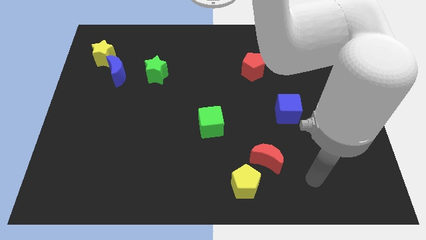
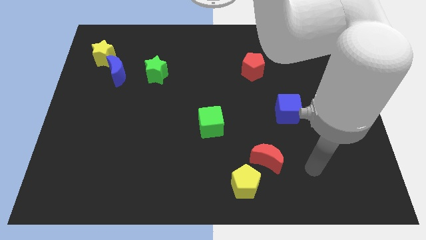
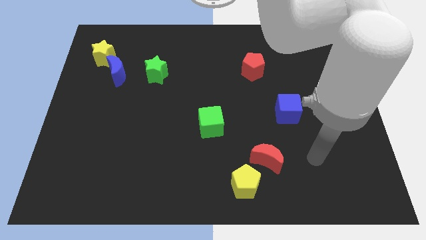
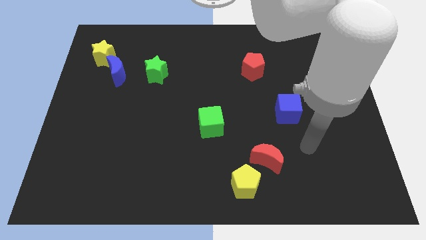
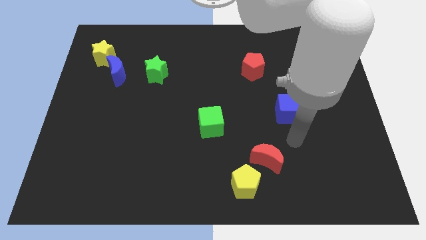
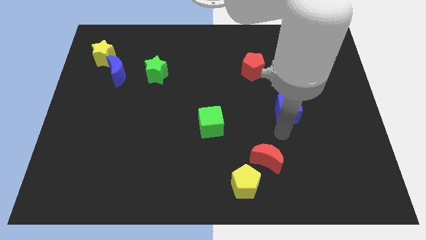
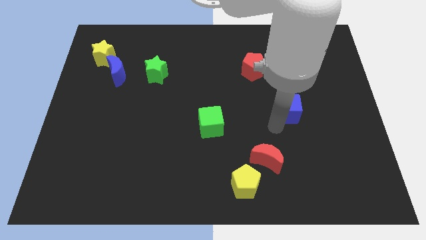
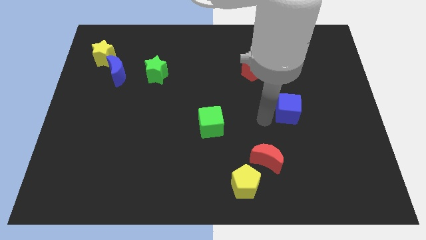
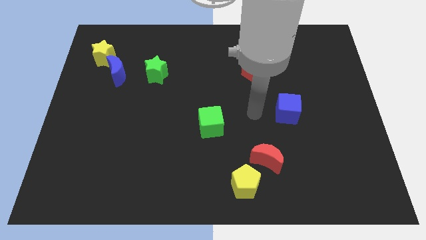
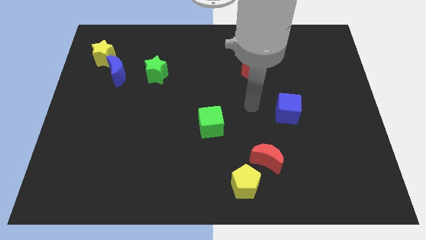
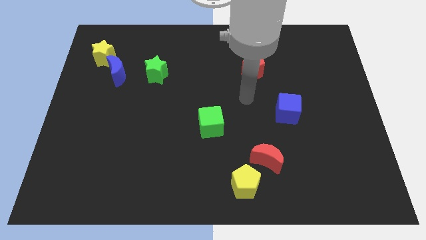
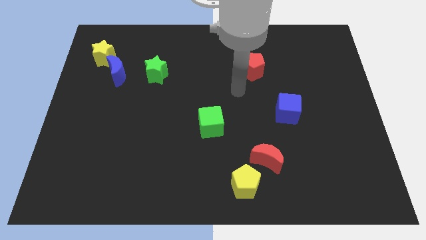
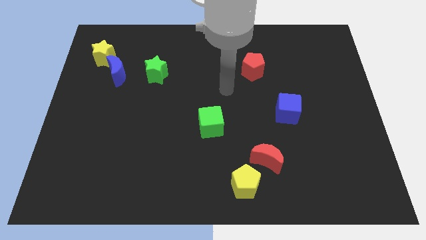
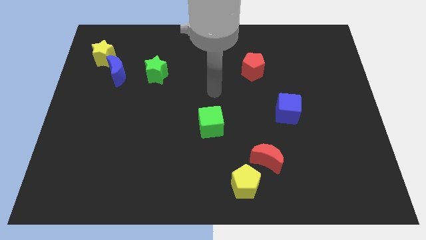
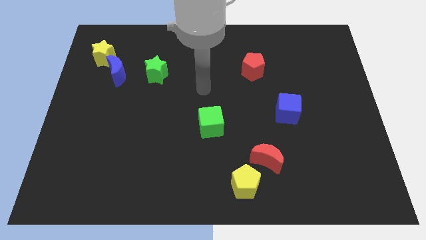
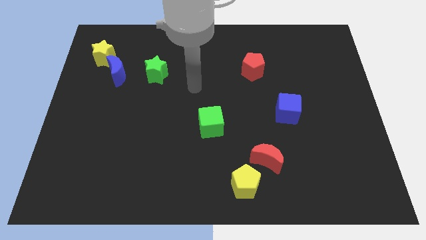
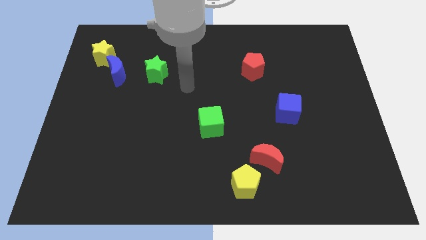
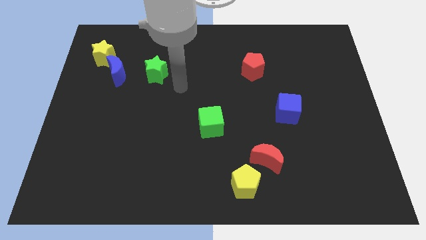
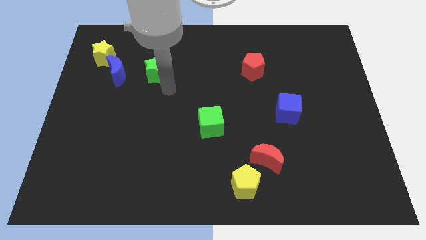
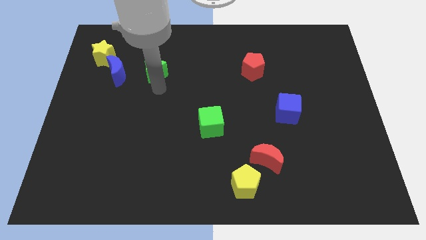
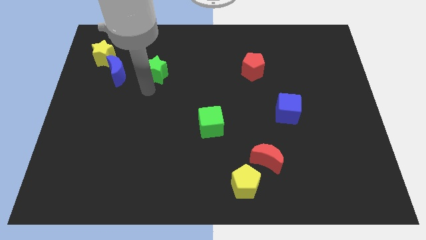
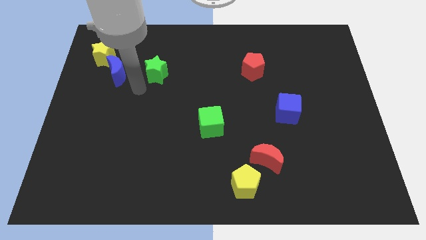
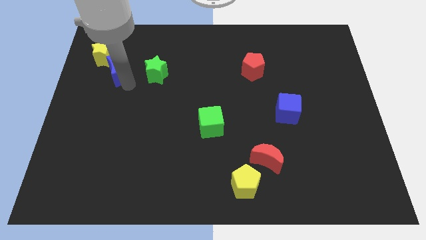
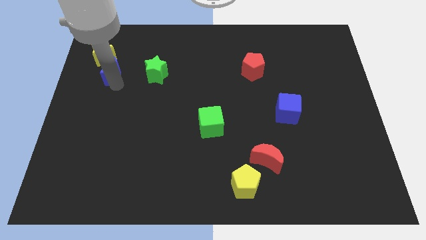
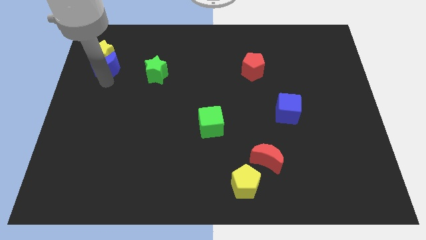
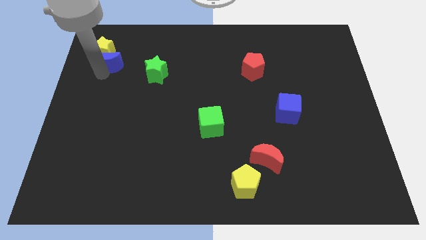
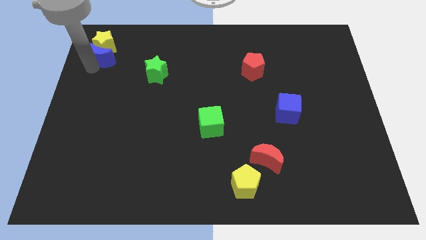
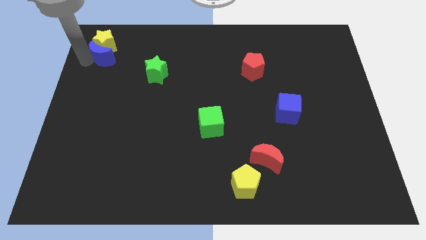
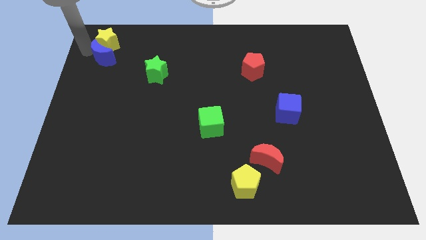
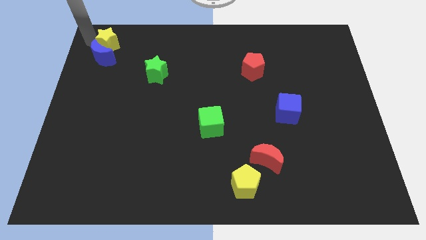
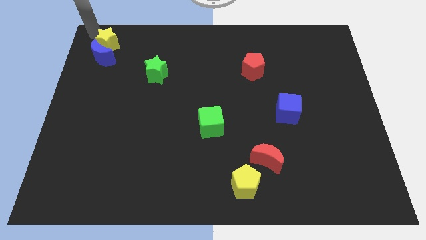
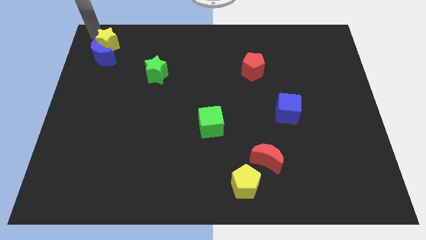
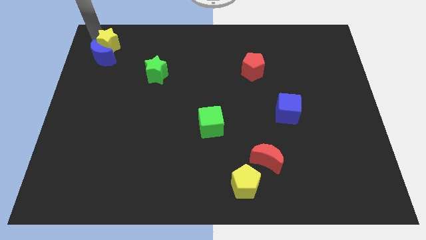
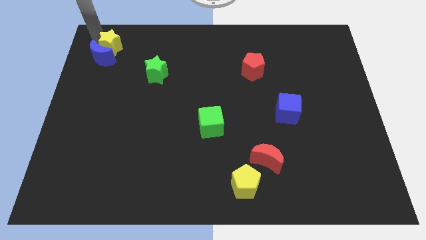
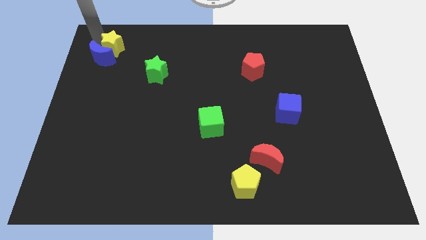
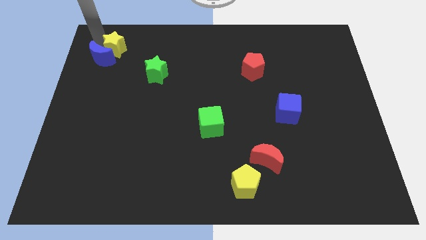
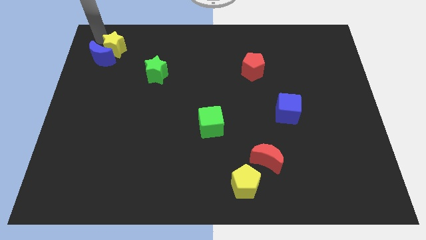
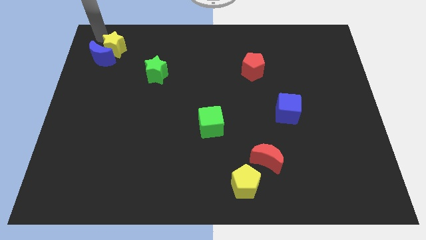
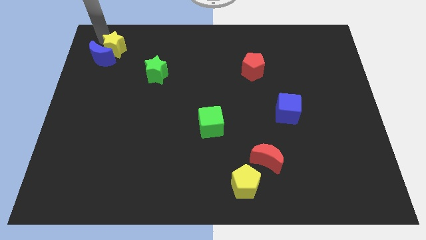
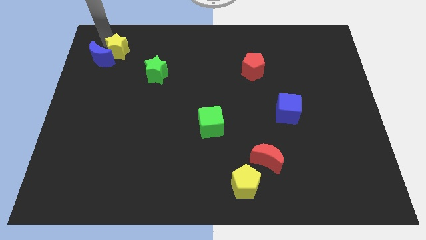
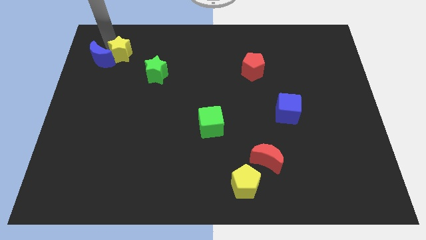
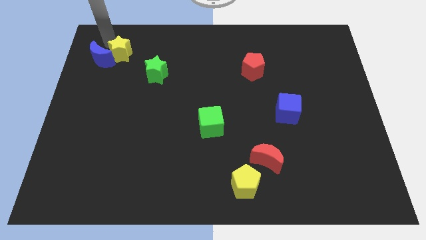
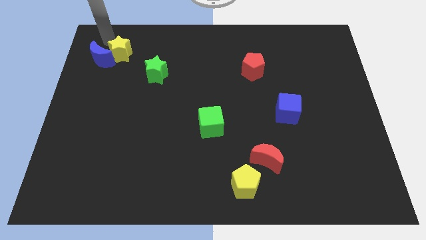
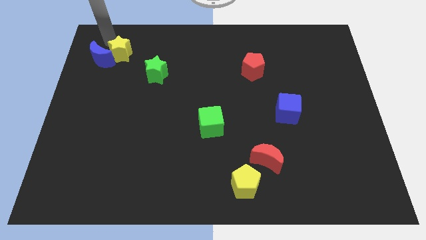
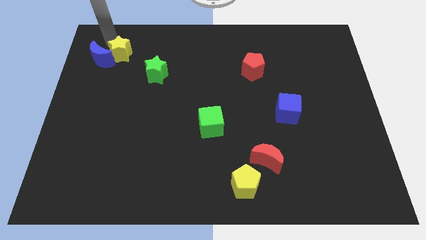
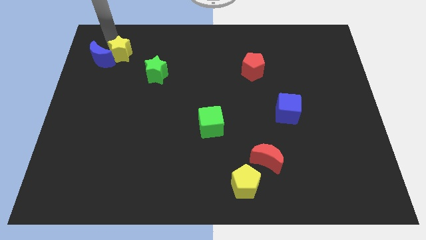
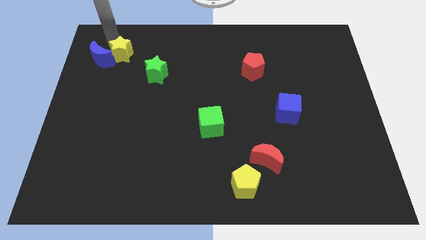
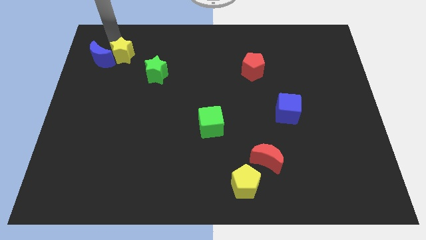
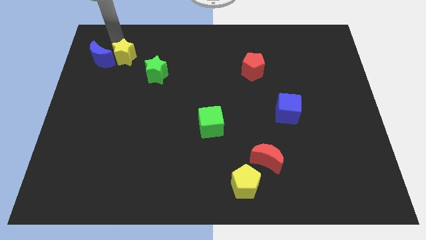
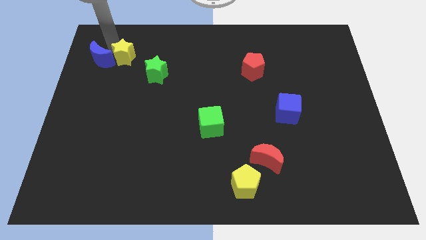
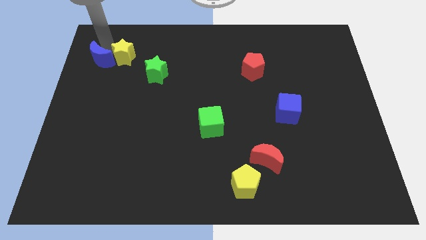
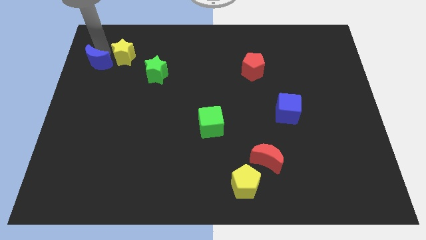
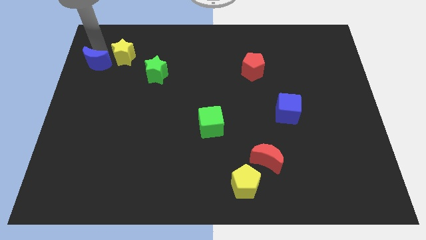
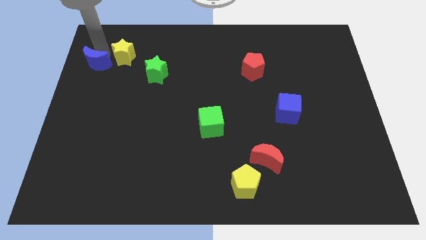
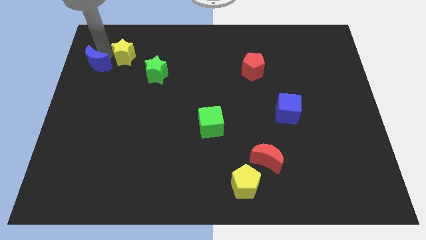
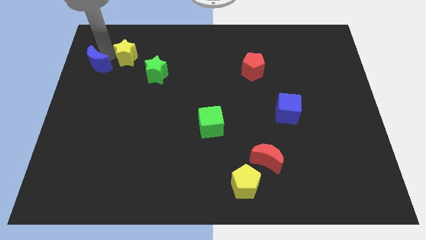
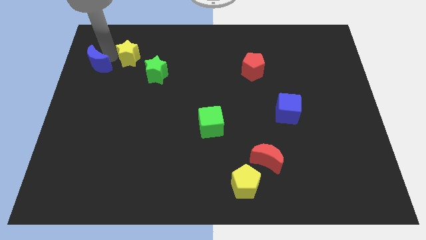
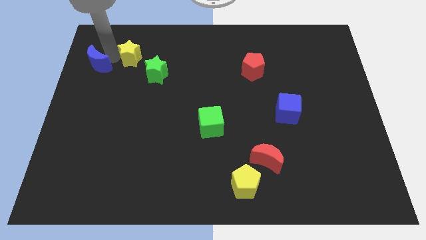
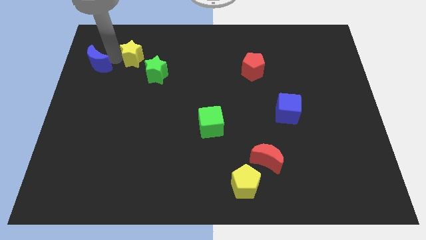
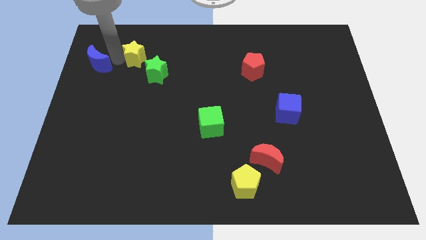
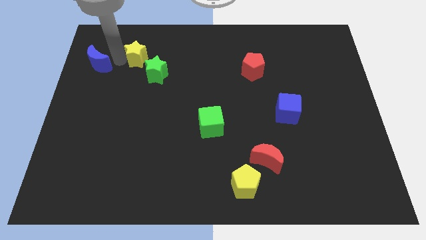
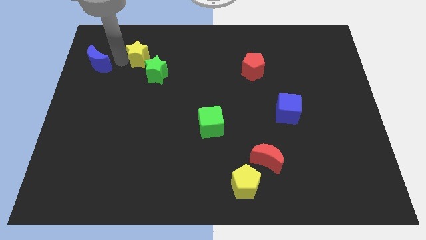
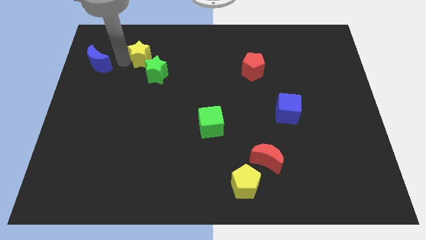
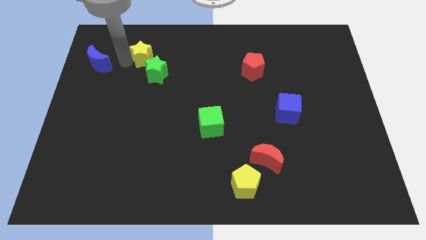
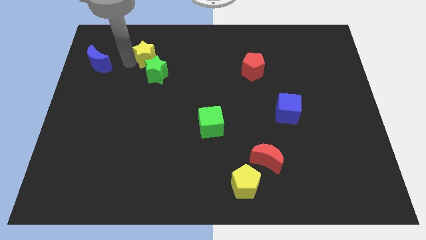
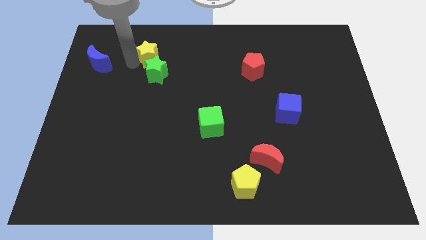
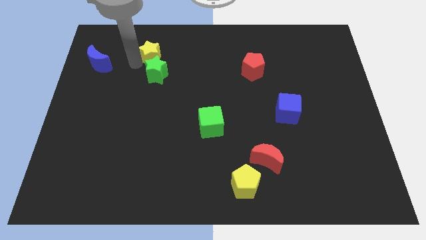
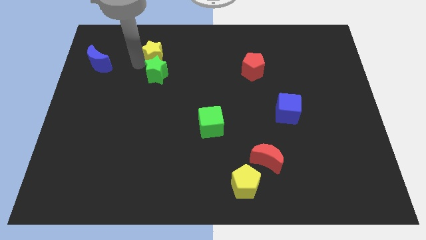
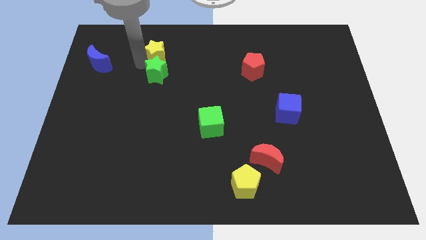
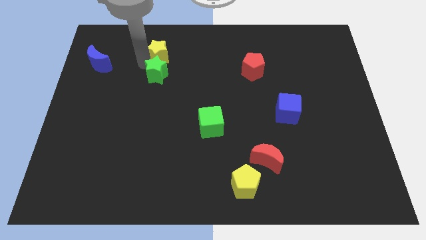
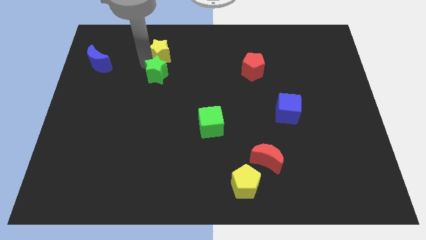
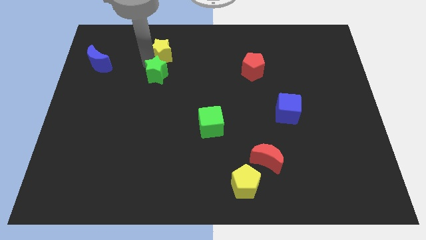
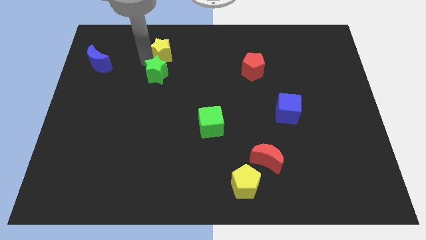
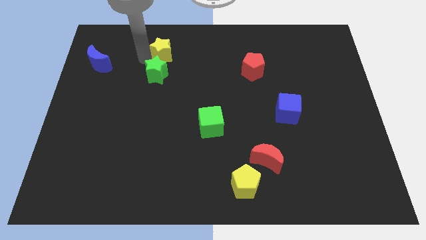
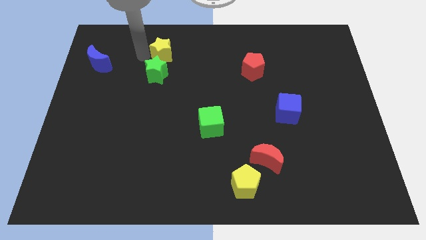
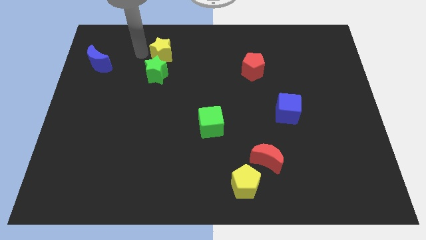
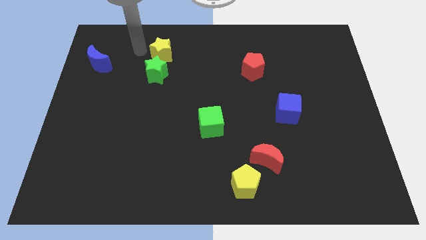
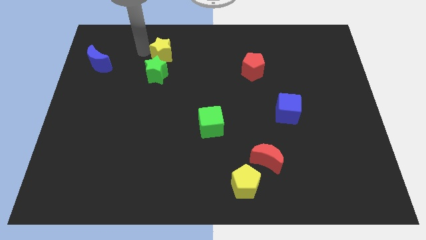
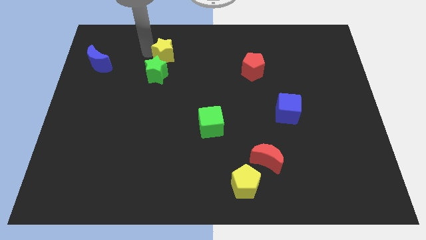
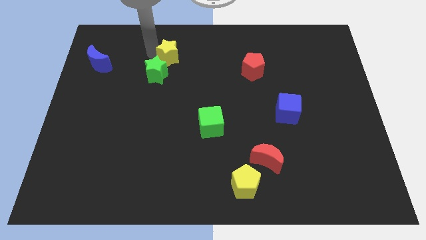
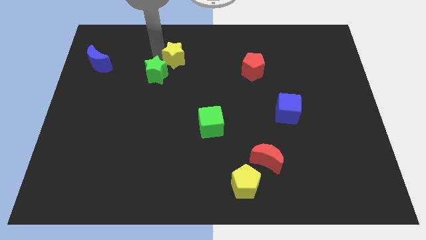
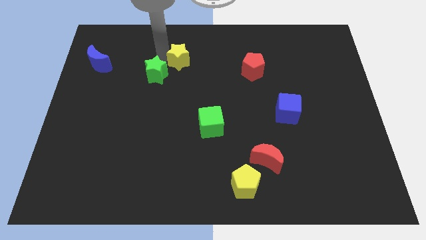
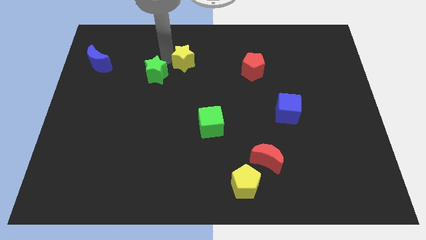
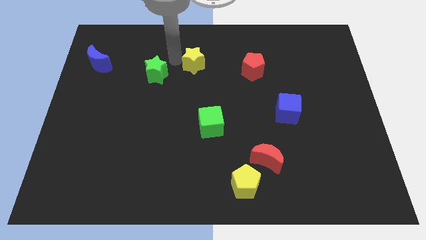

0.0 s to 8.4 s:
push the yellow star to the left side of the red pentagon
